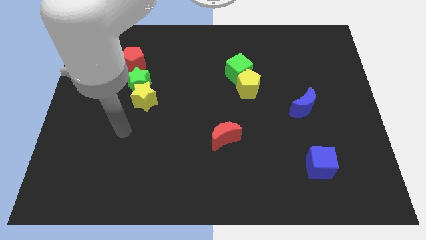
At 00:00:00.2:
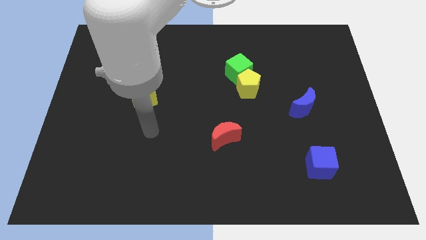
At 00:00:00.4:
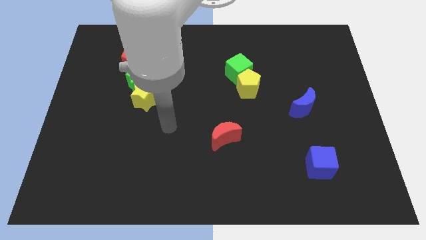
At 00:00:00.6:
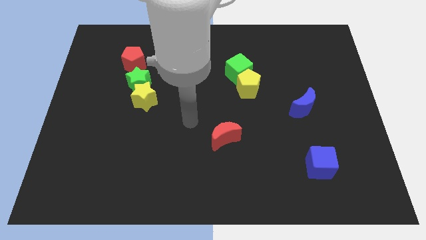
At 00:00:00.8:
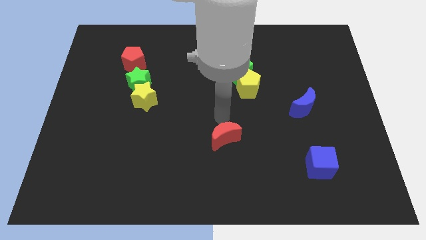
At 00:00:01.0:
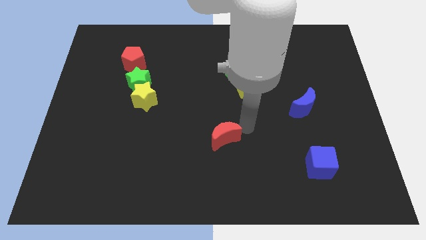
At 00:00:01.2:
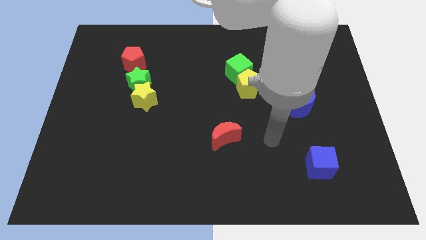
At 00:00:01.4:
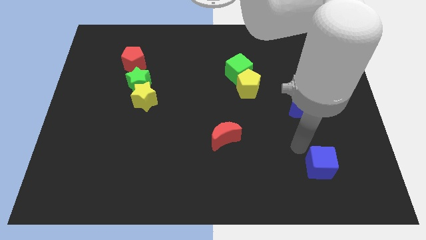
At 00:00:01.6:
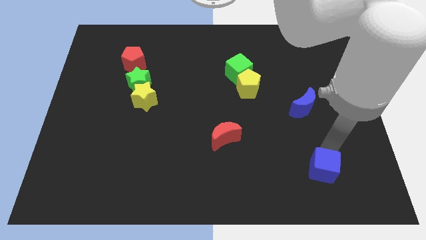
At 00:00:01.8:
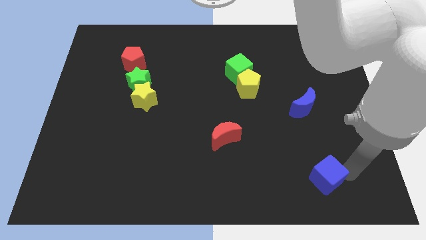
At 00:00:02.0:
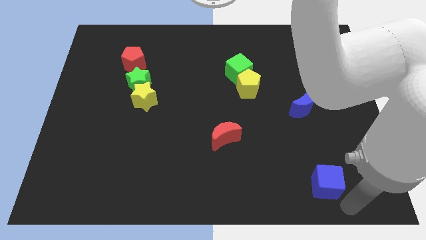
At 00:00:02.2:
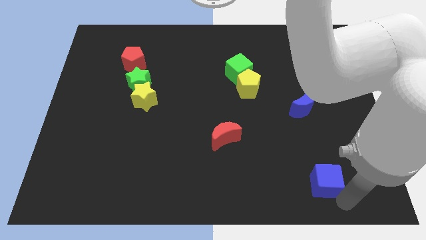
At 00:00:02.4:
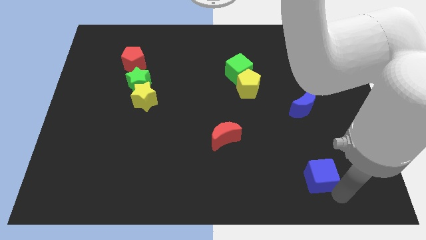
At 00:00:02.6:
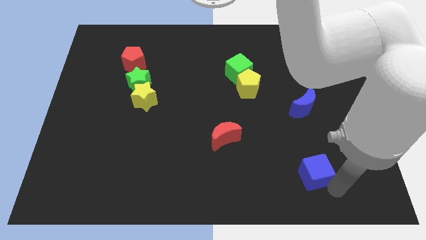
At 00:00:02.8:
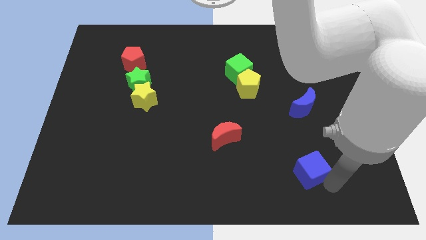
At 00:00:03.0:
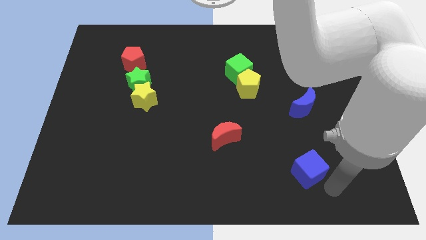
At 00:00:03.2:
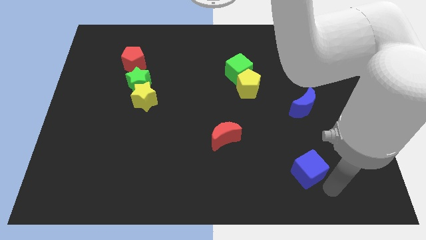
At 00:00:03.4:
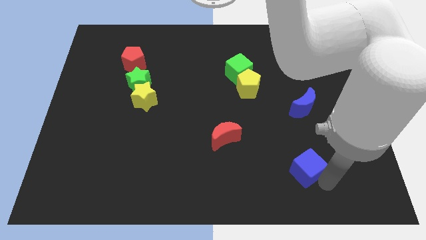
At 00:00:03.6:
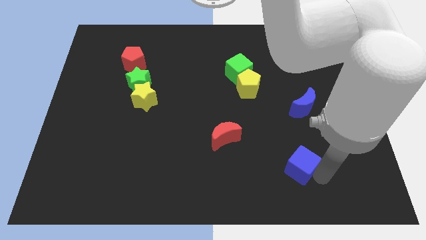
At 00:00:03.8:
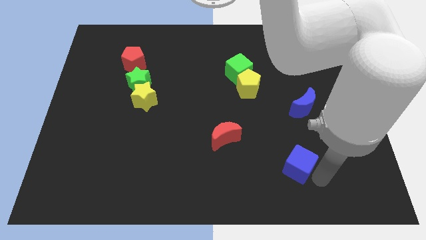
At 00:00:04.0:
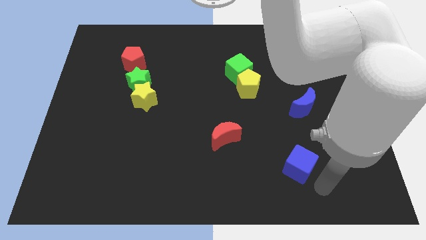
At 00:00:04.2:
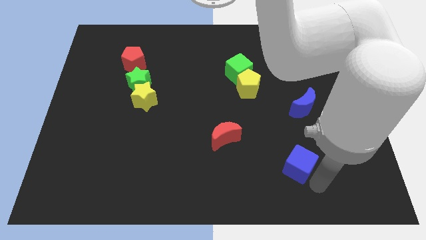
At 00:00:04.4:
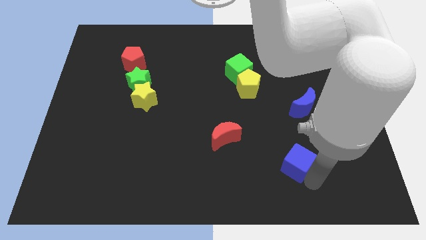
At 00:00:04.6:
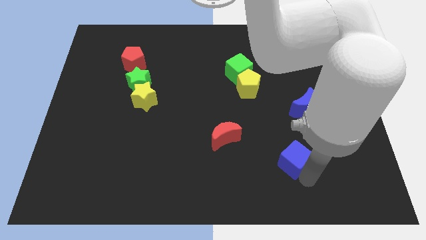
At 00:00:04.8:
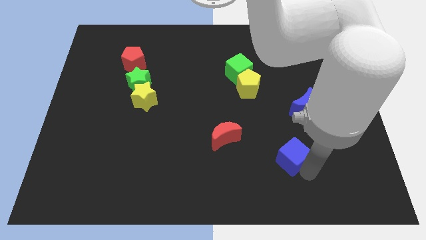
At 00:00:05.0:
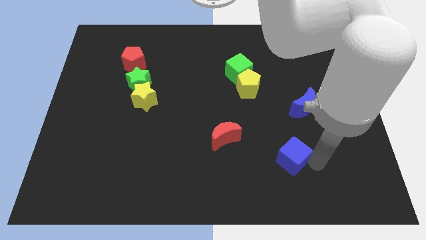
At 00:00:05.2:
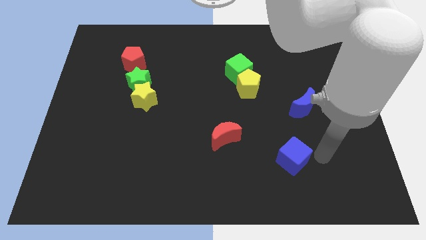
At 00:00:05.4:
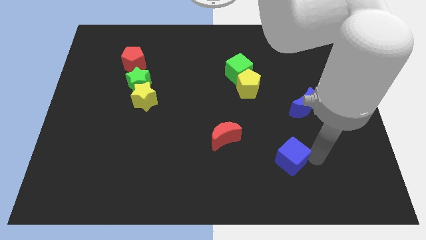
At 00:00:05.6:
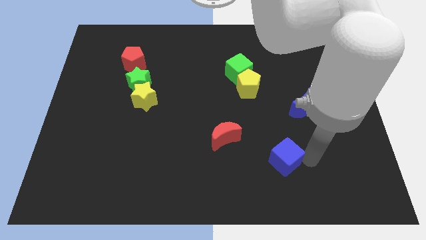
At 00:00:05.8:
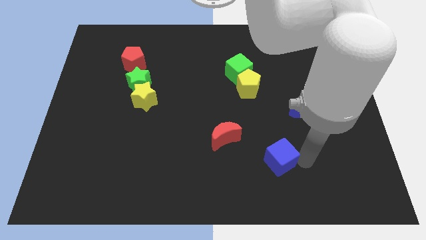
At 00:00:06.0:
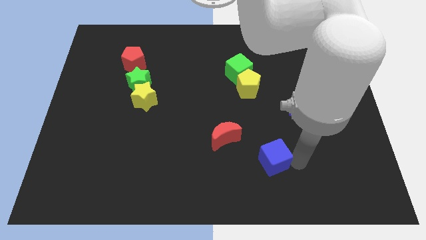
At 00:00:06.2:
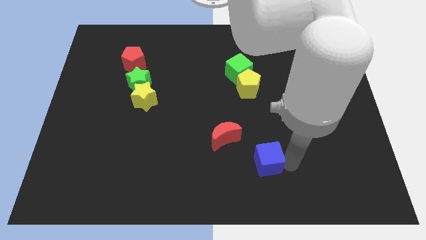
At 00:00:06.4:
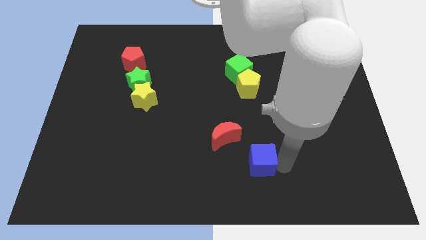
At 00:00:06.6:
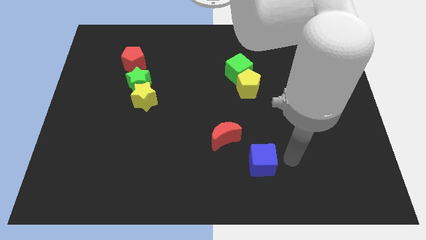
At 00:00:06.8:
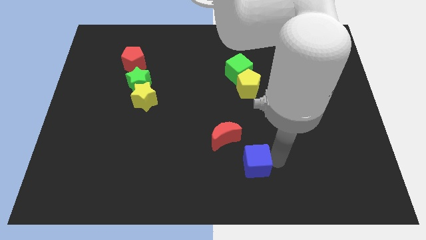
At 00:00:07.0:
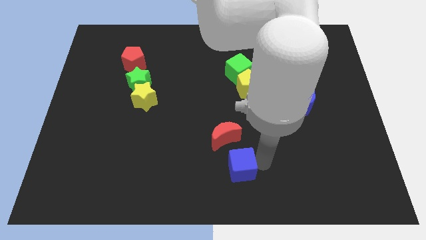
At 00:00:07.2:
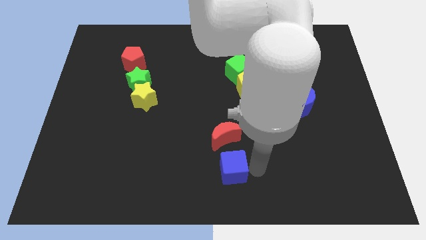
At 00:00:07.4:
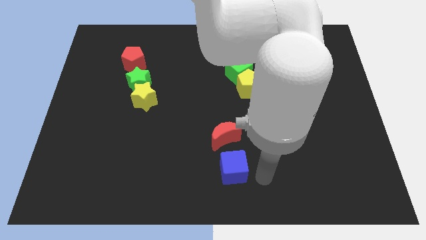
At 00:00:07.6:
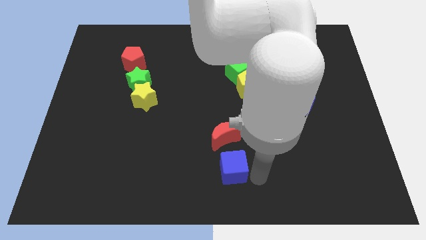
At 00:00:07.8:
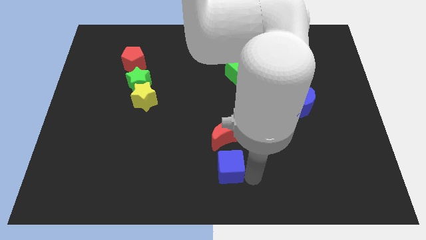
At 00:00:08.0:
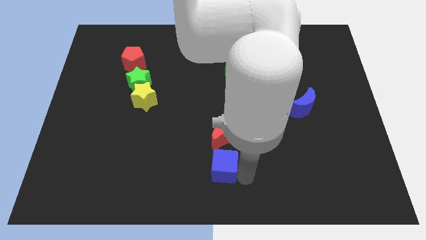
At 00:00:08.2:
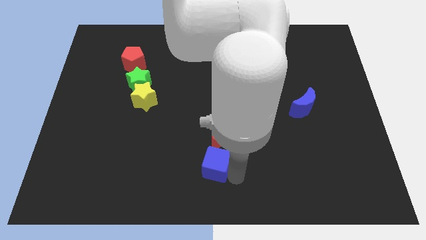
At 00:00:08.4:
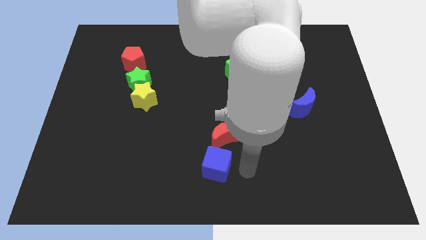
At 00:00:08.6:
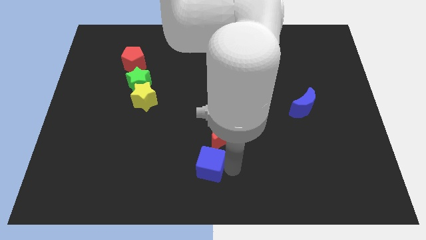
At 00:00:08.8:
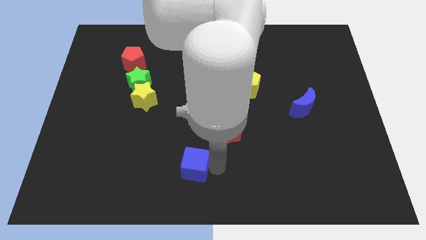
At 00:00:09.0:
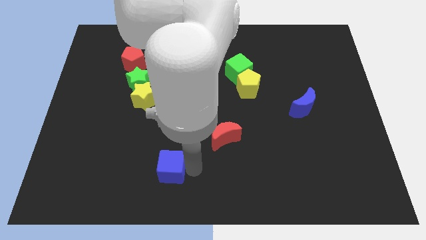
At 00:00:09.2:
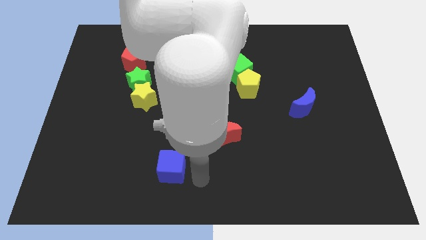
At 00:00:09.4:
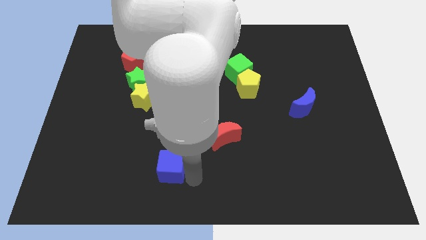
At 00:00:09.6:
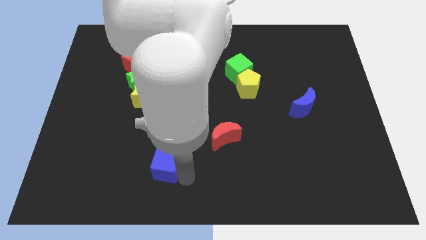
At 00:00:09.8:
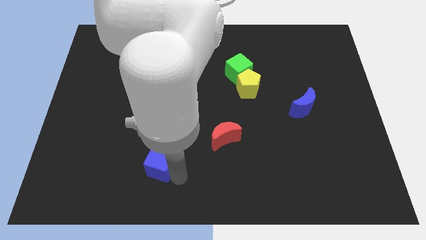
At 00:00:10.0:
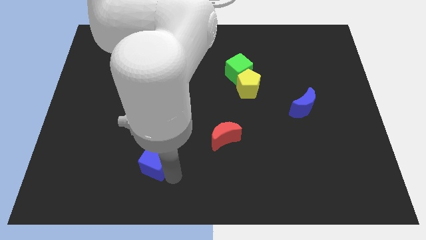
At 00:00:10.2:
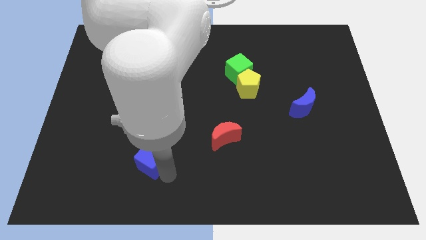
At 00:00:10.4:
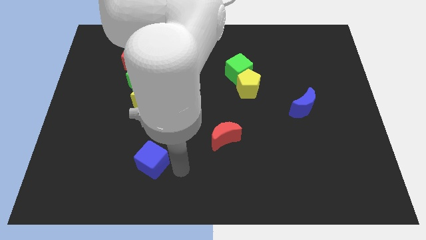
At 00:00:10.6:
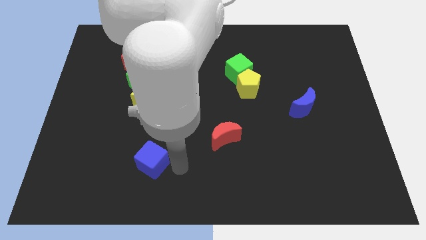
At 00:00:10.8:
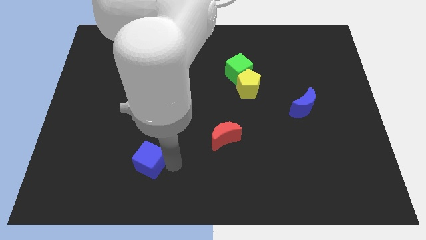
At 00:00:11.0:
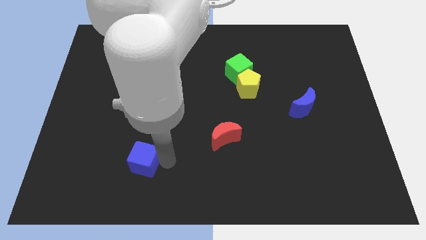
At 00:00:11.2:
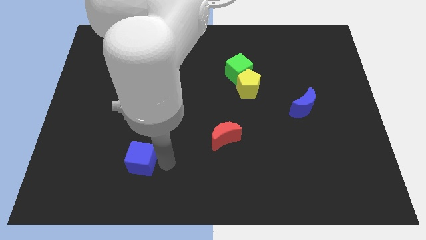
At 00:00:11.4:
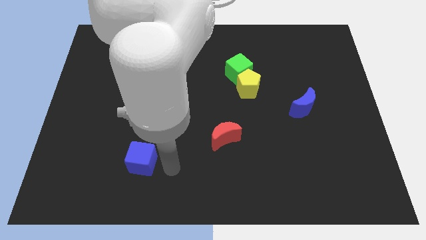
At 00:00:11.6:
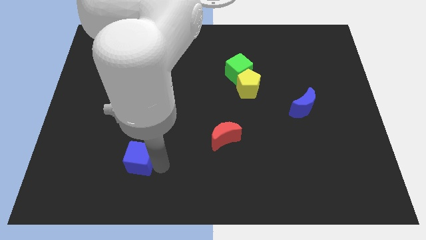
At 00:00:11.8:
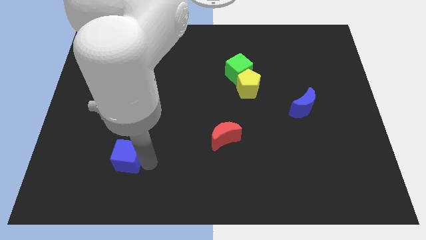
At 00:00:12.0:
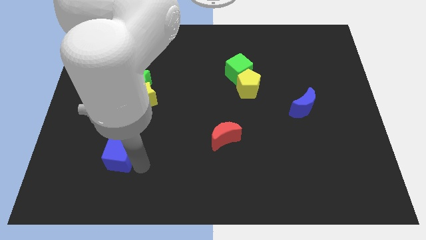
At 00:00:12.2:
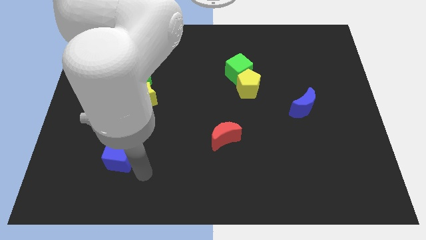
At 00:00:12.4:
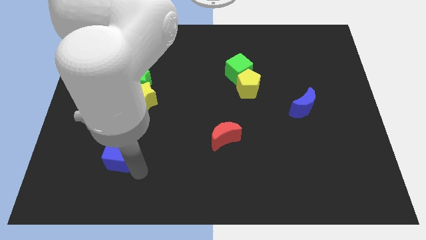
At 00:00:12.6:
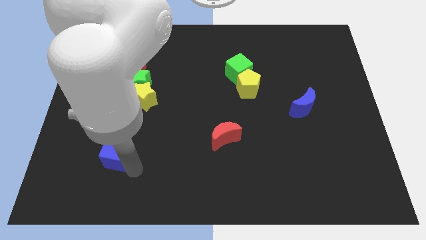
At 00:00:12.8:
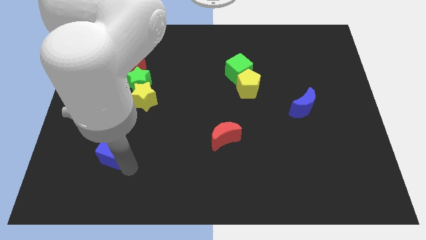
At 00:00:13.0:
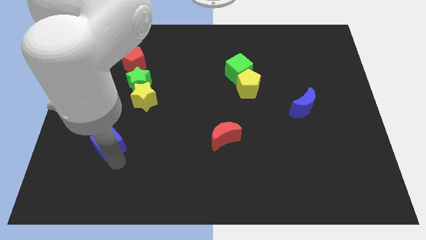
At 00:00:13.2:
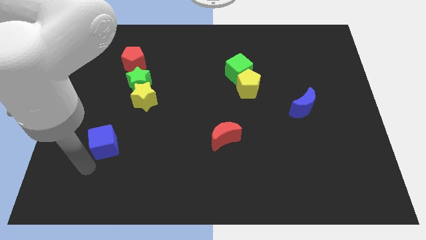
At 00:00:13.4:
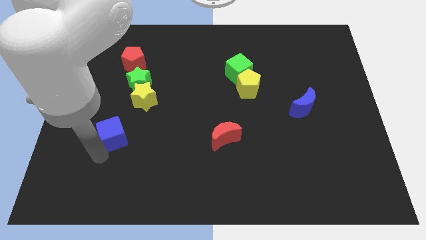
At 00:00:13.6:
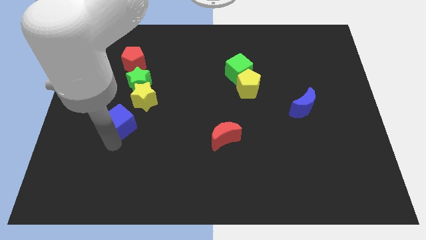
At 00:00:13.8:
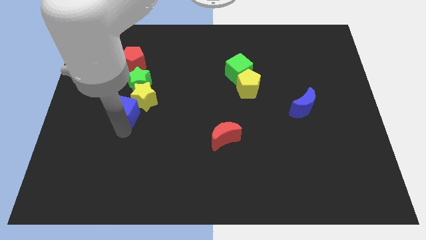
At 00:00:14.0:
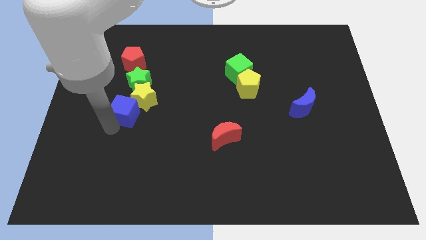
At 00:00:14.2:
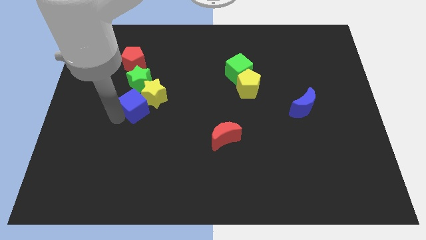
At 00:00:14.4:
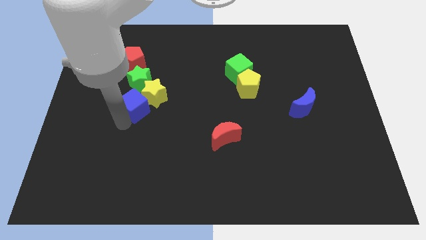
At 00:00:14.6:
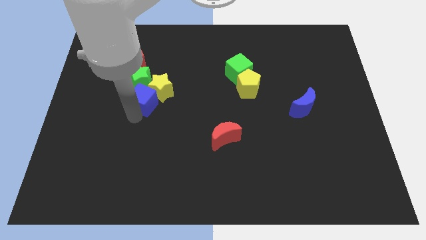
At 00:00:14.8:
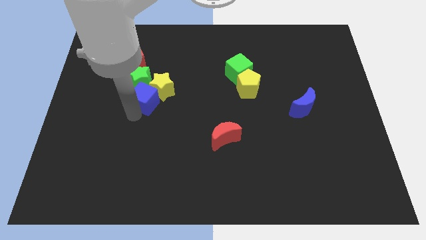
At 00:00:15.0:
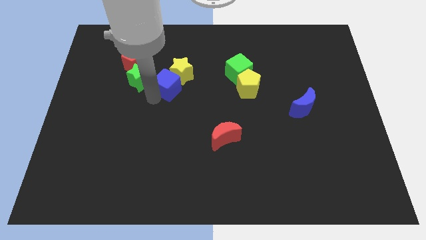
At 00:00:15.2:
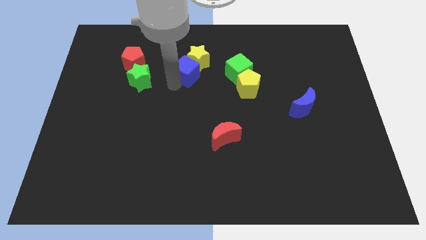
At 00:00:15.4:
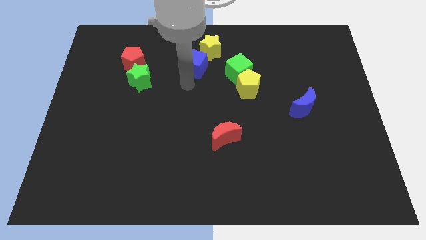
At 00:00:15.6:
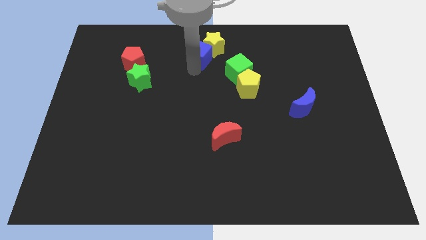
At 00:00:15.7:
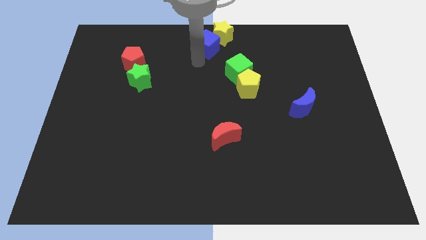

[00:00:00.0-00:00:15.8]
slide the blue cube to the top
